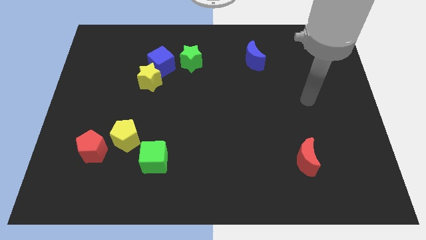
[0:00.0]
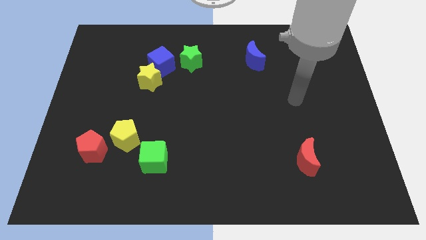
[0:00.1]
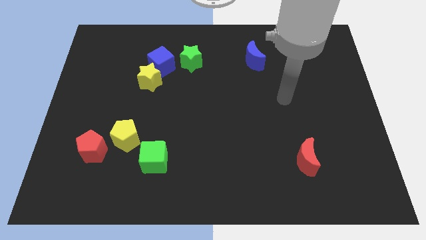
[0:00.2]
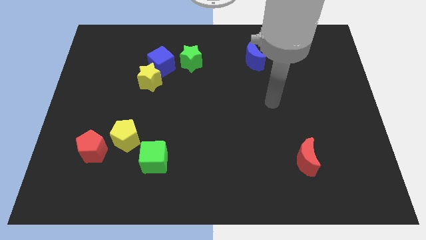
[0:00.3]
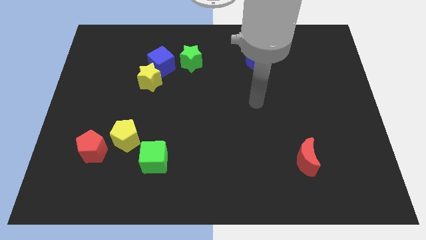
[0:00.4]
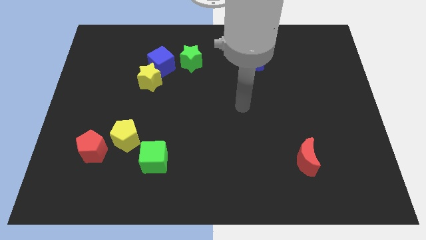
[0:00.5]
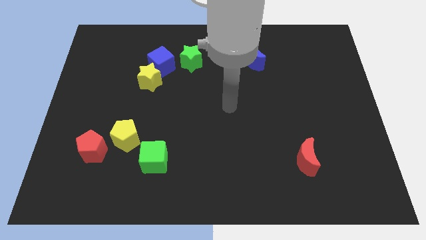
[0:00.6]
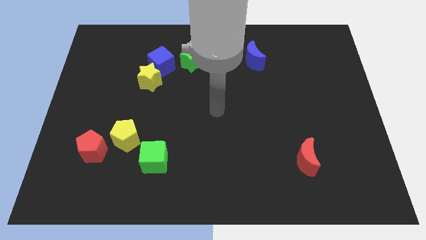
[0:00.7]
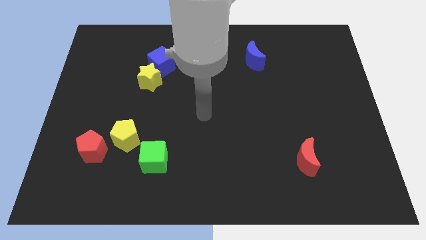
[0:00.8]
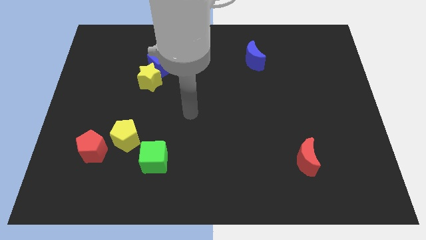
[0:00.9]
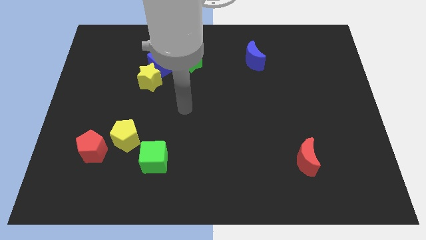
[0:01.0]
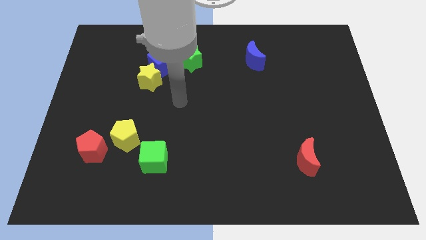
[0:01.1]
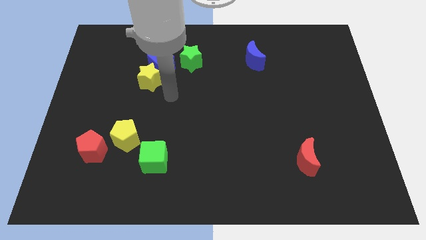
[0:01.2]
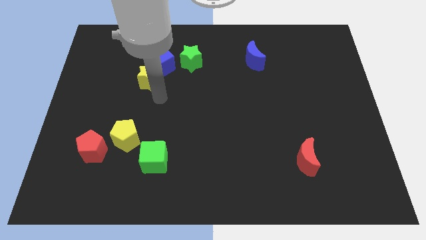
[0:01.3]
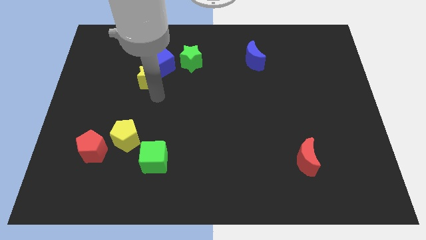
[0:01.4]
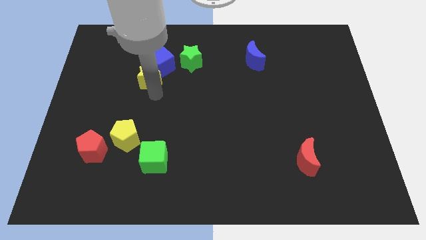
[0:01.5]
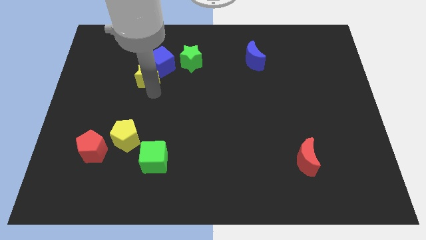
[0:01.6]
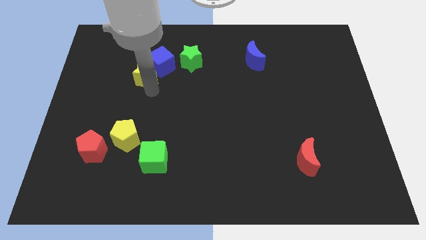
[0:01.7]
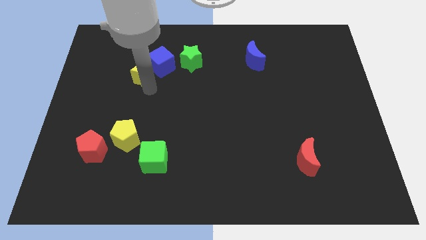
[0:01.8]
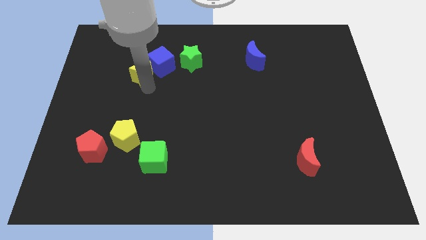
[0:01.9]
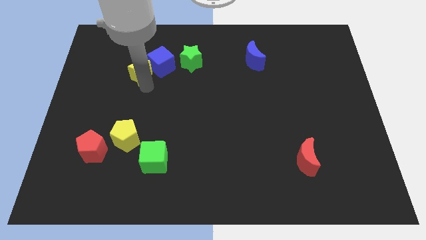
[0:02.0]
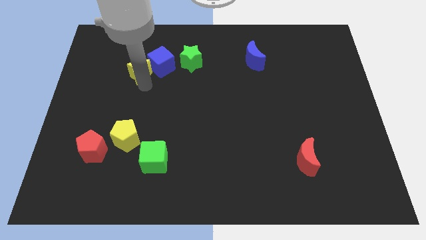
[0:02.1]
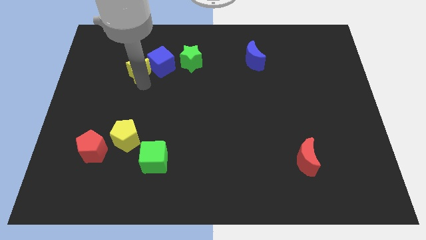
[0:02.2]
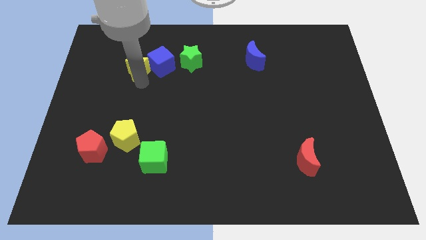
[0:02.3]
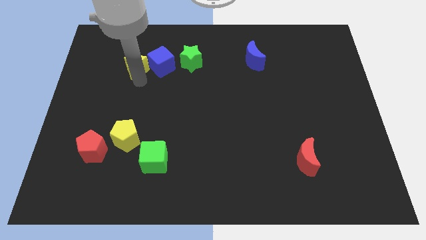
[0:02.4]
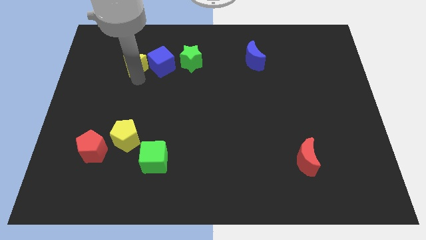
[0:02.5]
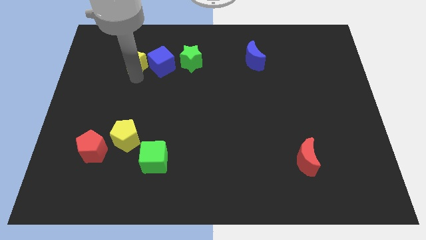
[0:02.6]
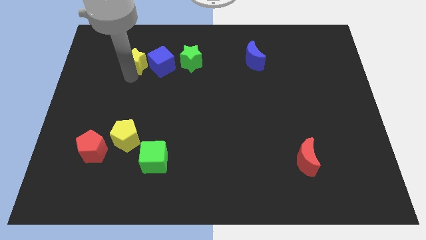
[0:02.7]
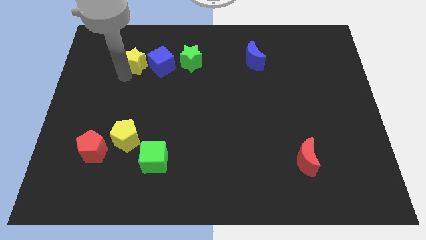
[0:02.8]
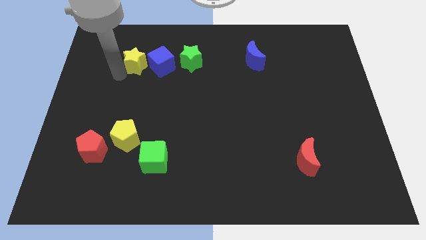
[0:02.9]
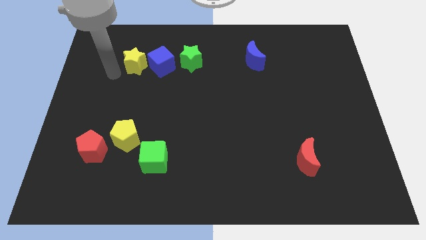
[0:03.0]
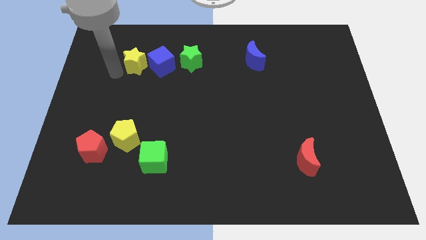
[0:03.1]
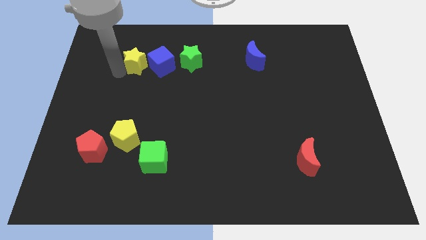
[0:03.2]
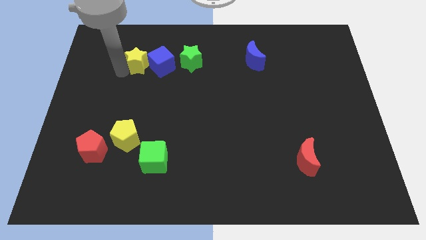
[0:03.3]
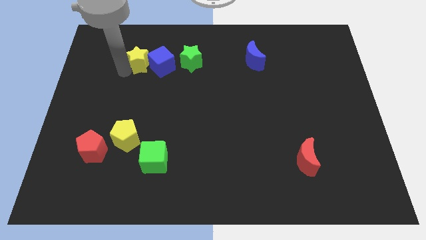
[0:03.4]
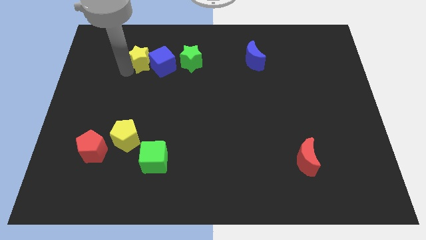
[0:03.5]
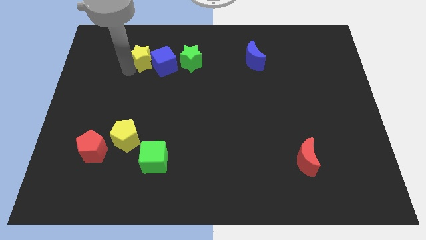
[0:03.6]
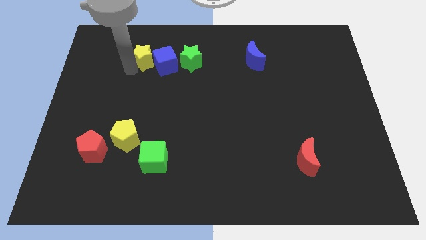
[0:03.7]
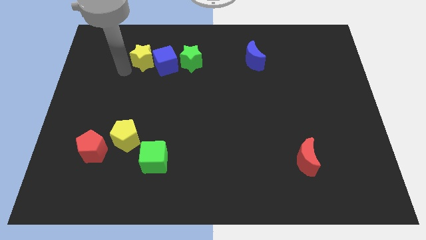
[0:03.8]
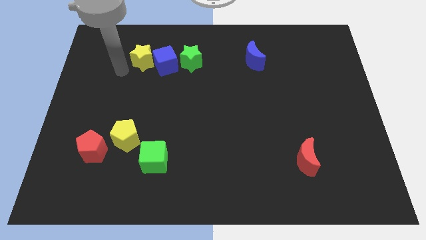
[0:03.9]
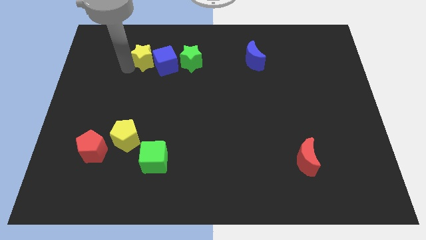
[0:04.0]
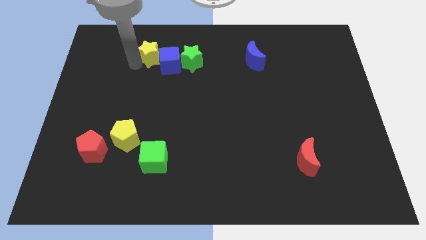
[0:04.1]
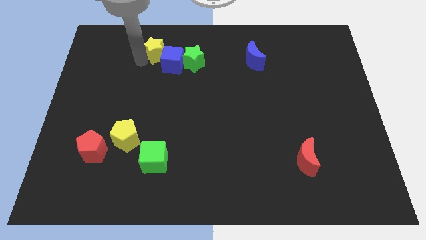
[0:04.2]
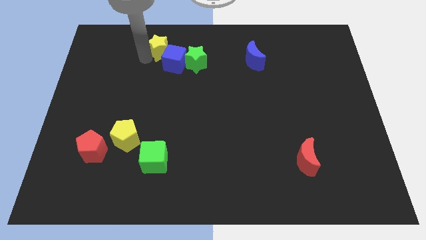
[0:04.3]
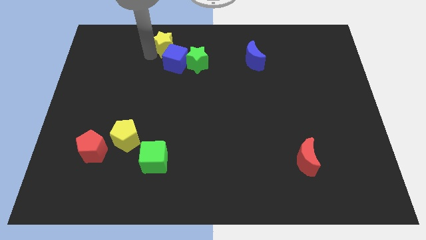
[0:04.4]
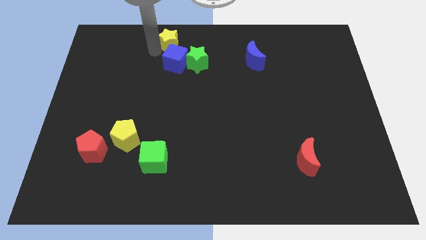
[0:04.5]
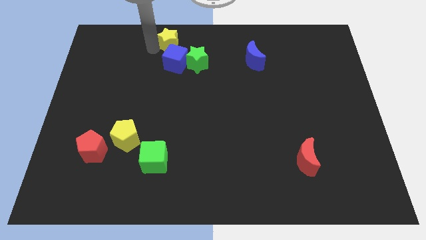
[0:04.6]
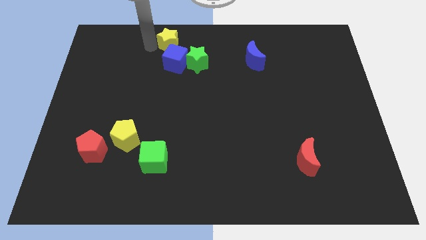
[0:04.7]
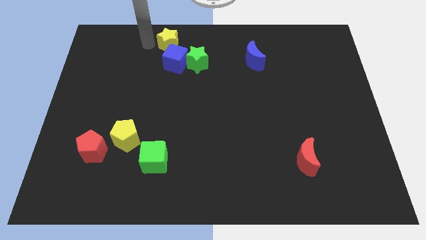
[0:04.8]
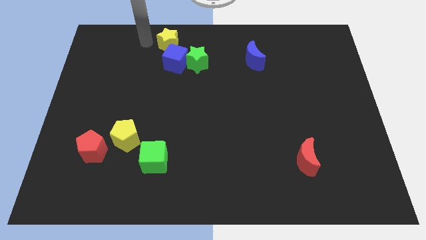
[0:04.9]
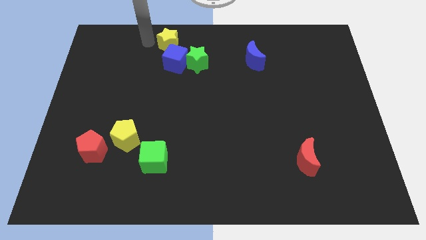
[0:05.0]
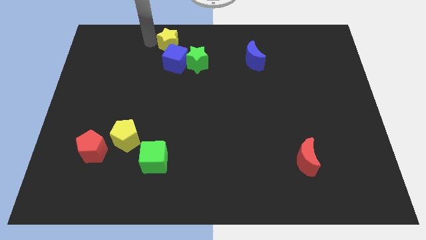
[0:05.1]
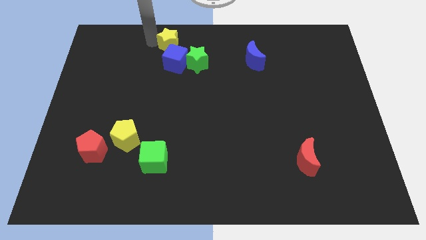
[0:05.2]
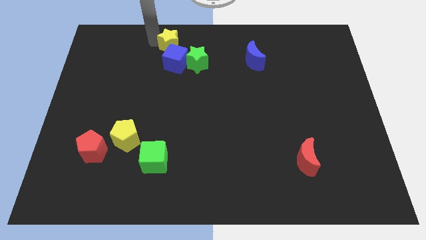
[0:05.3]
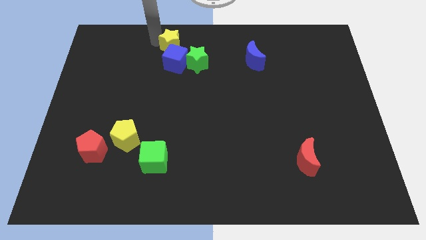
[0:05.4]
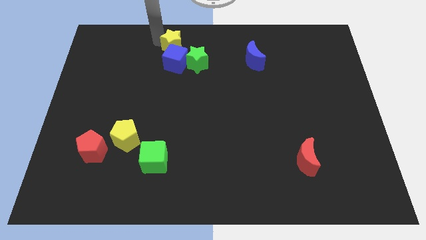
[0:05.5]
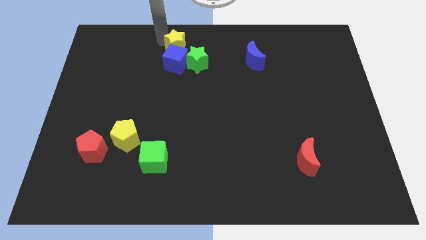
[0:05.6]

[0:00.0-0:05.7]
put the yellow star to the top

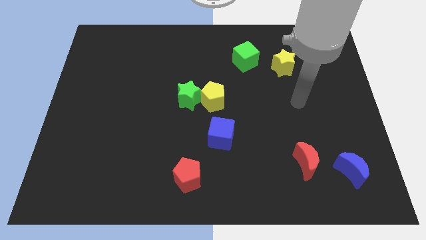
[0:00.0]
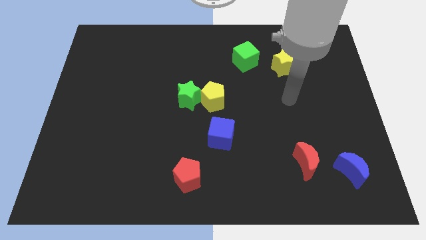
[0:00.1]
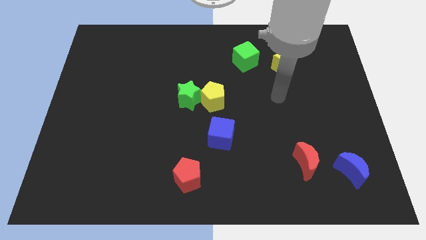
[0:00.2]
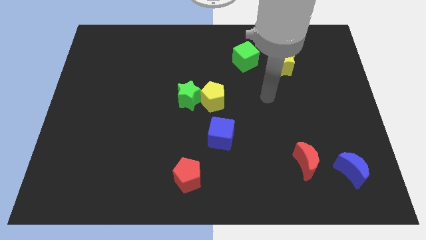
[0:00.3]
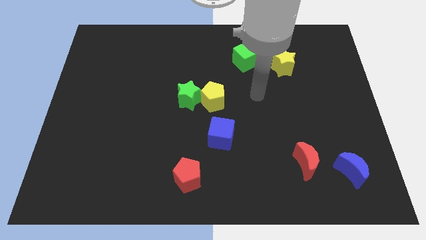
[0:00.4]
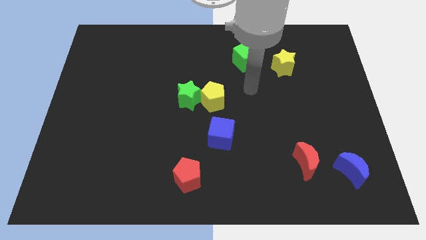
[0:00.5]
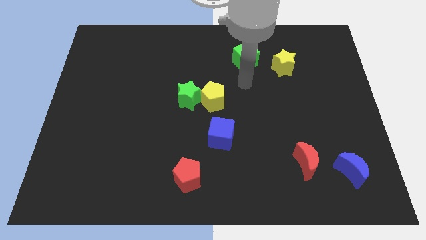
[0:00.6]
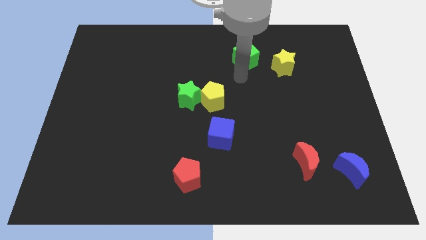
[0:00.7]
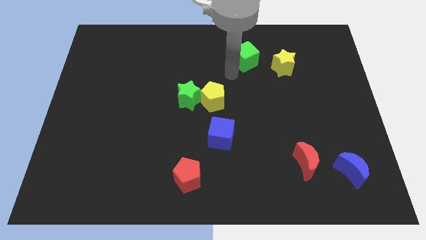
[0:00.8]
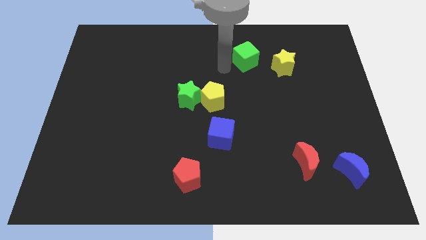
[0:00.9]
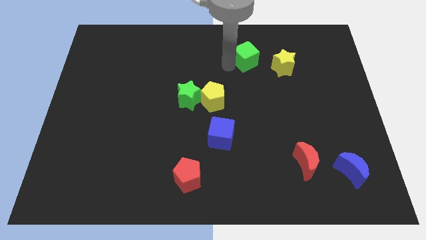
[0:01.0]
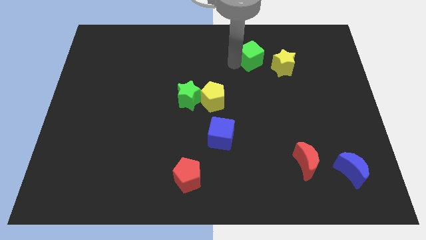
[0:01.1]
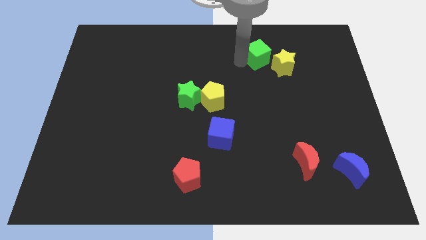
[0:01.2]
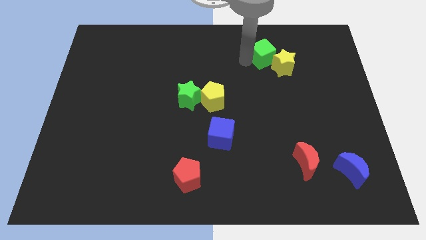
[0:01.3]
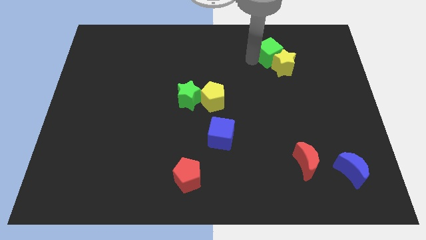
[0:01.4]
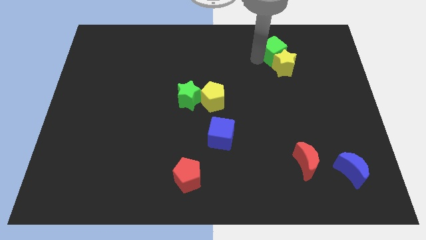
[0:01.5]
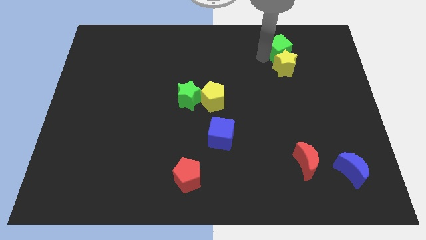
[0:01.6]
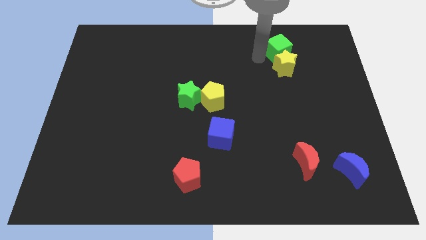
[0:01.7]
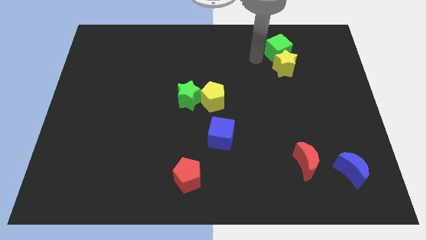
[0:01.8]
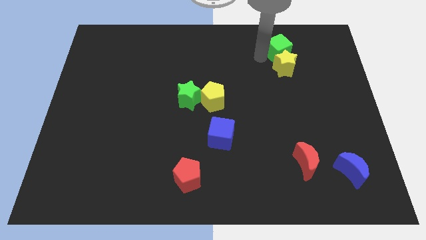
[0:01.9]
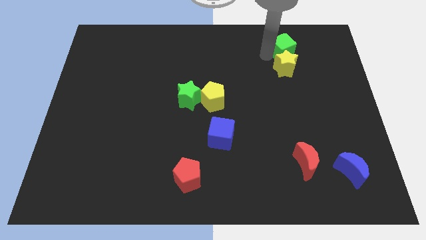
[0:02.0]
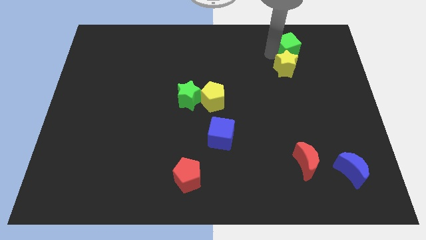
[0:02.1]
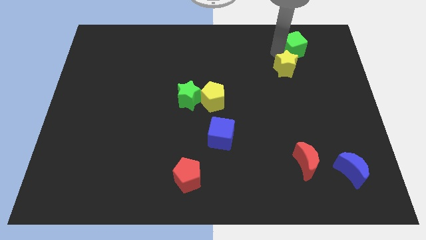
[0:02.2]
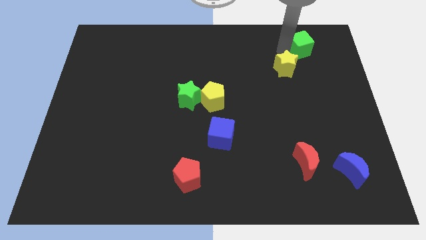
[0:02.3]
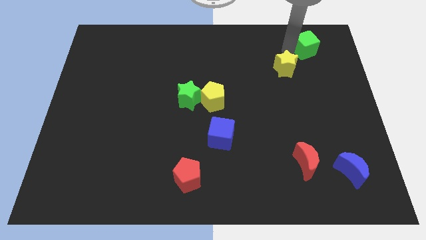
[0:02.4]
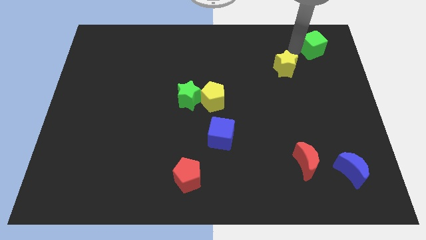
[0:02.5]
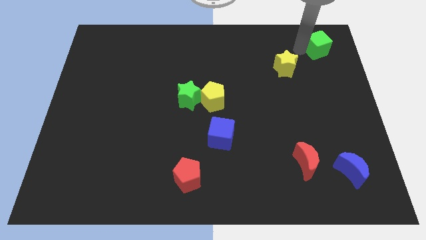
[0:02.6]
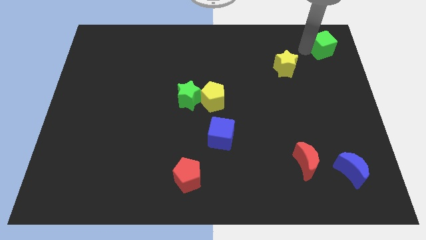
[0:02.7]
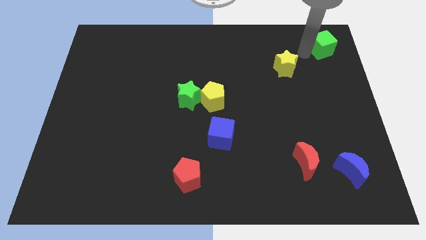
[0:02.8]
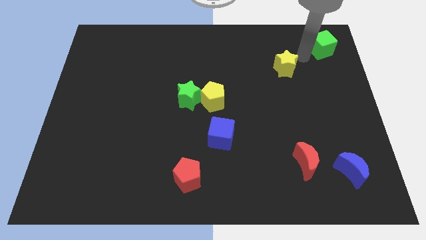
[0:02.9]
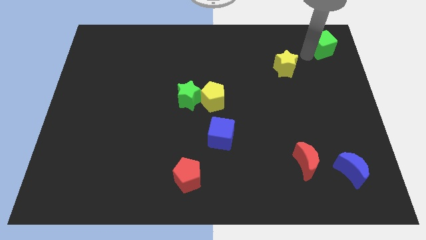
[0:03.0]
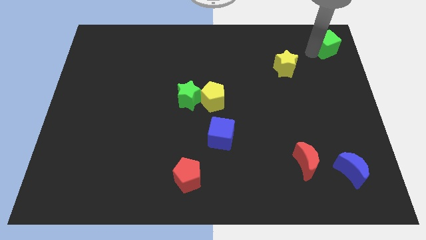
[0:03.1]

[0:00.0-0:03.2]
move the green cube to the top right corner
